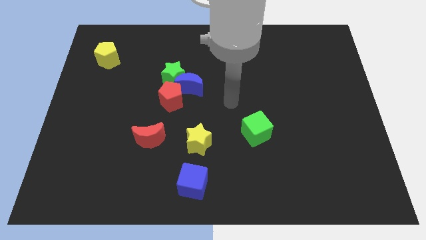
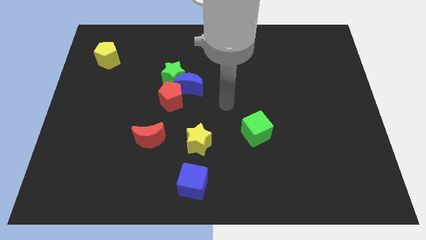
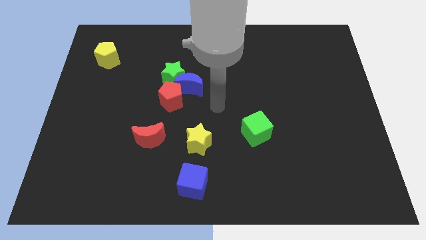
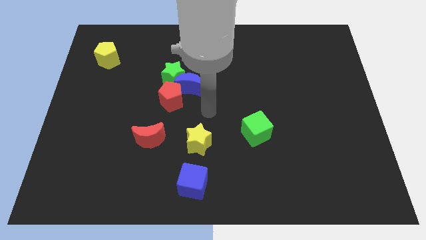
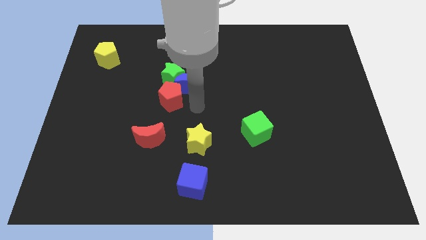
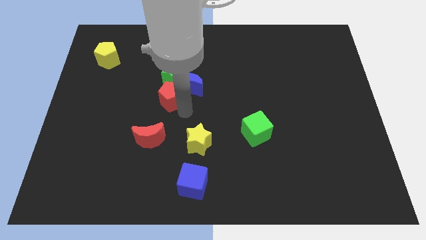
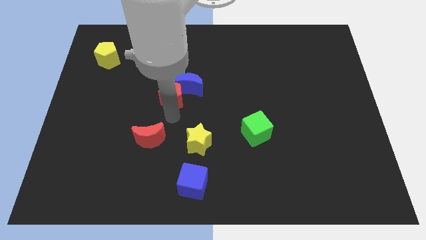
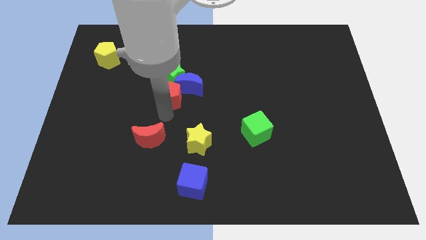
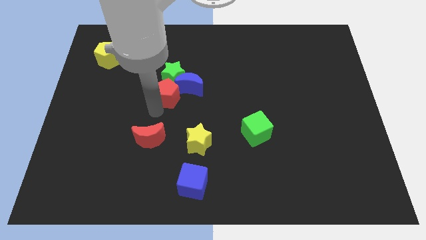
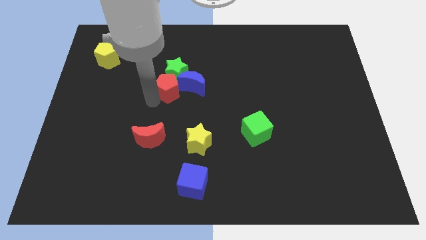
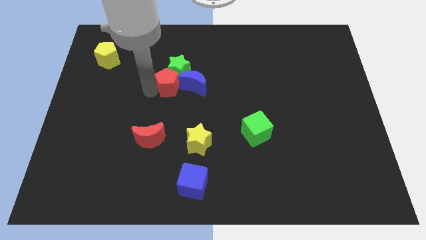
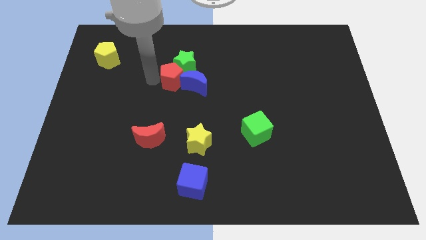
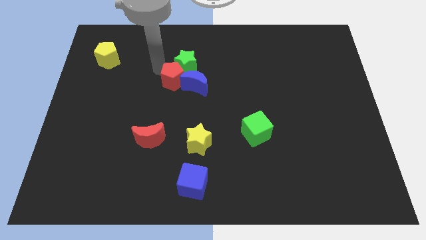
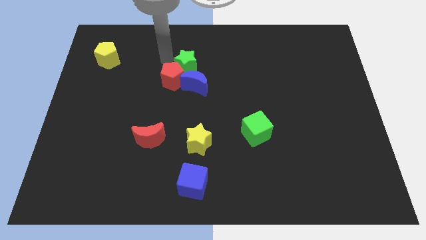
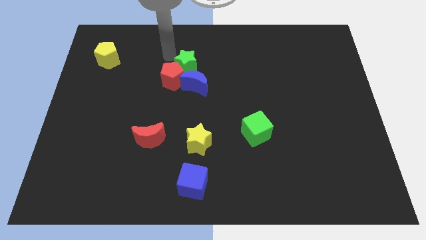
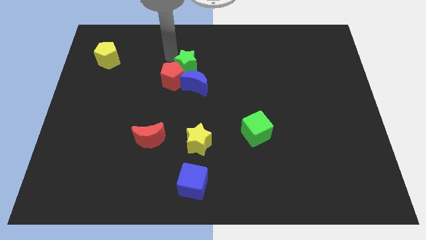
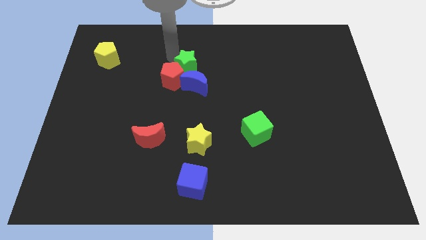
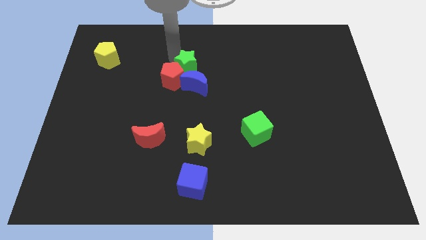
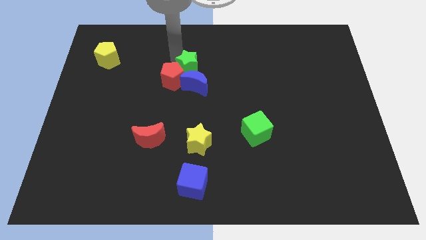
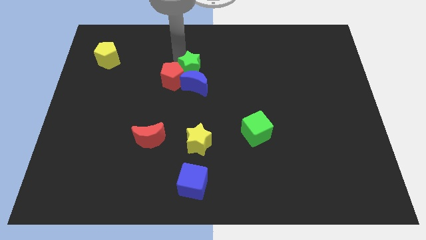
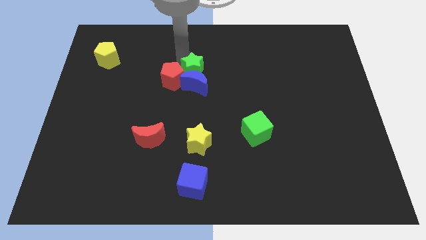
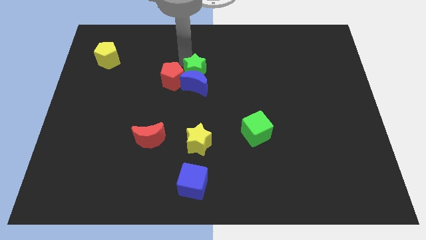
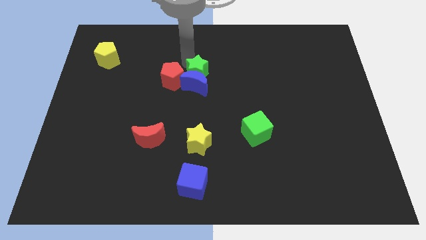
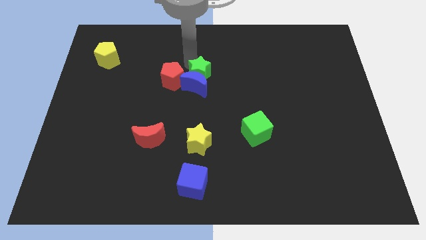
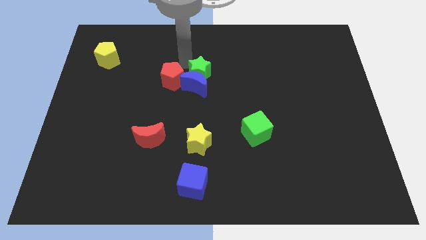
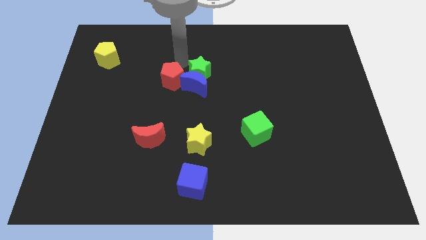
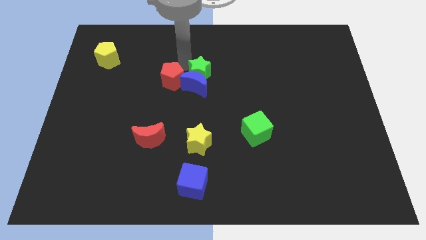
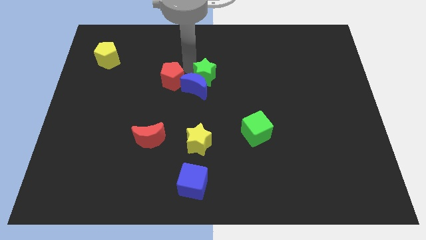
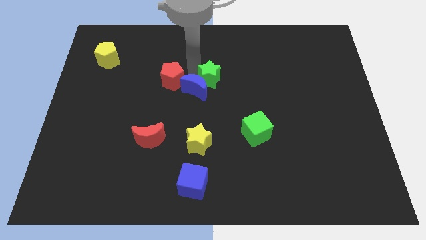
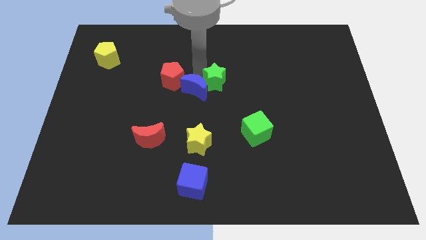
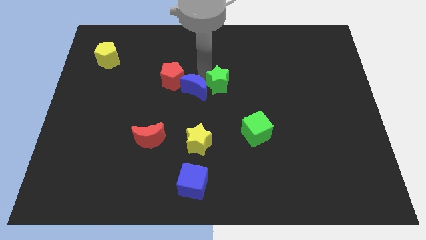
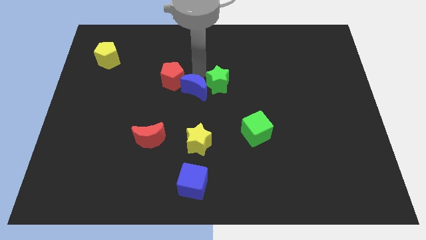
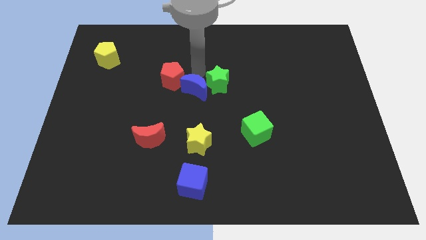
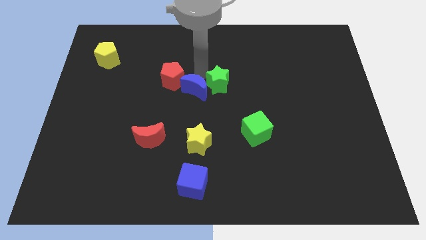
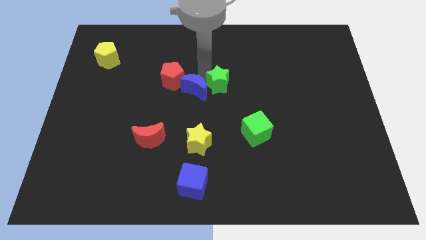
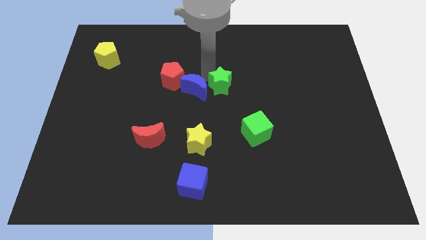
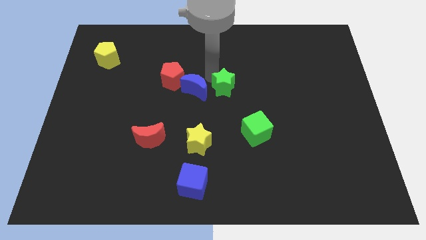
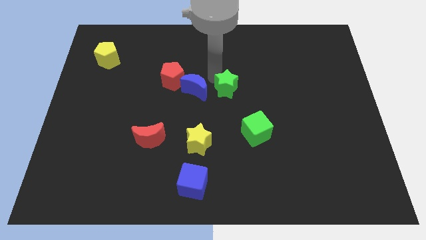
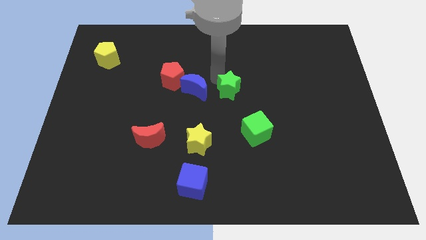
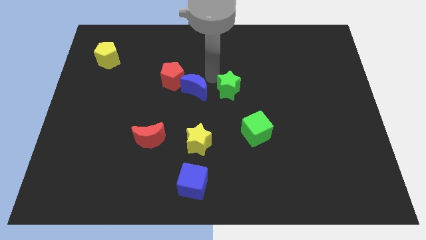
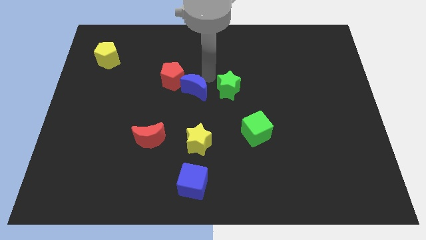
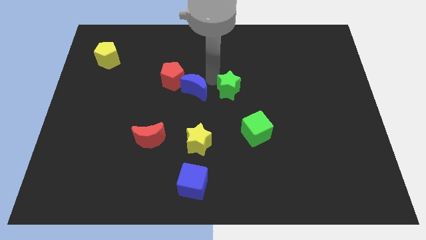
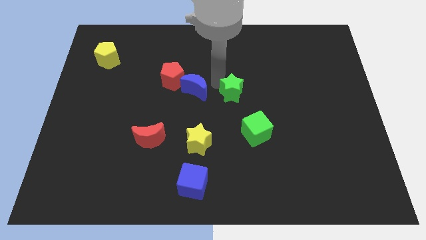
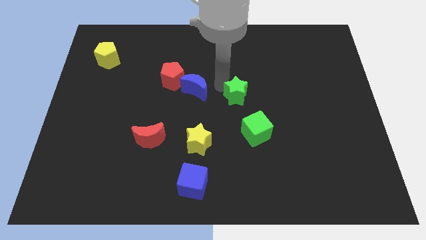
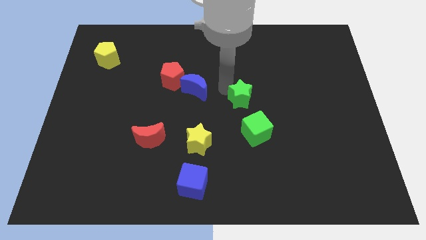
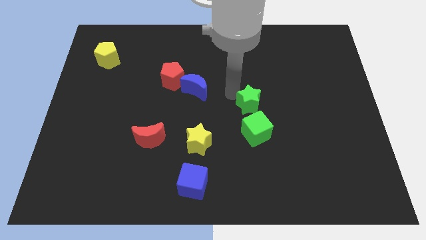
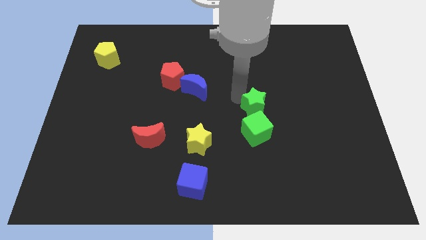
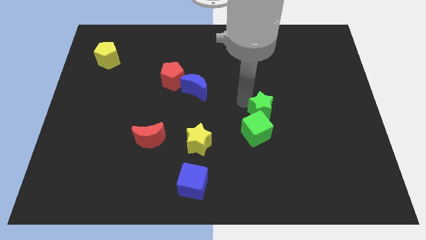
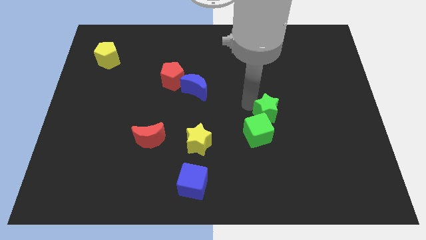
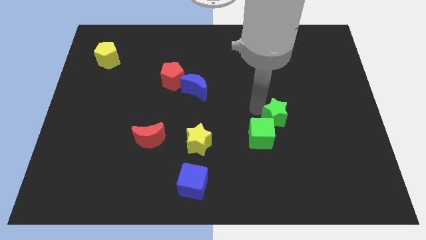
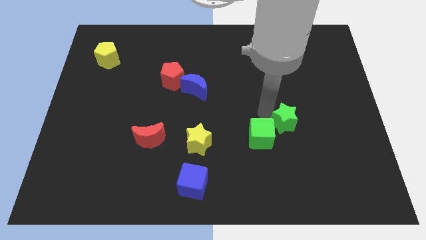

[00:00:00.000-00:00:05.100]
slide the green star just right of the green cube
